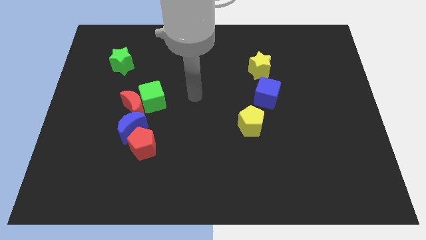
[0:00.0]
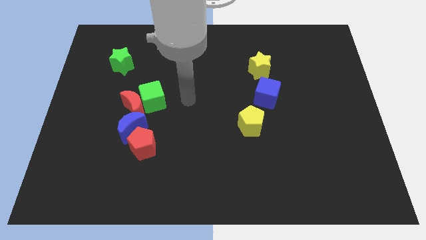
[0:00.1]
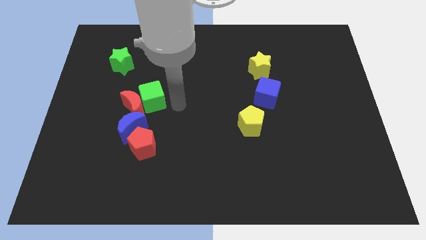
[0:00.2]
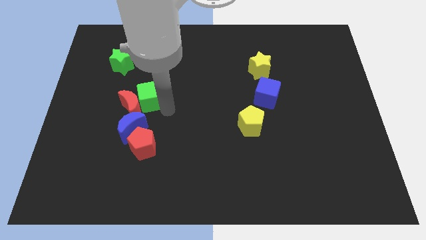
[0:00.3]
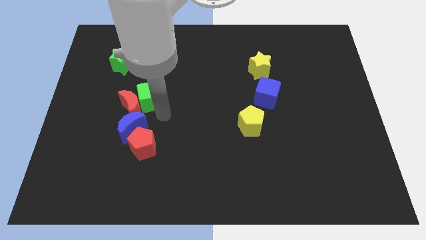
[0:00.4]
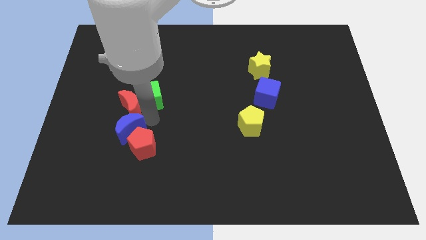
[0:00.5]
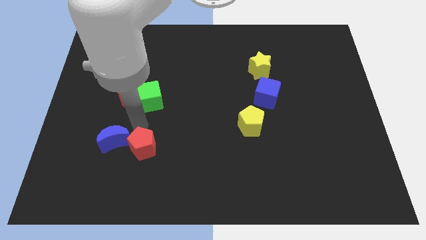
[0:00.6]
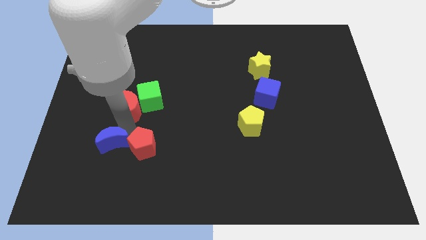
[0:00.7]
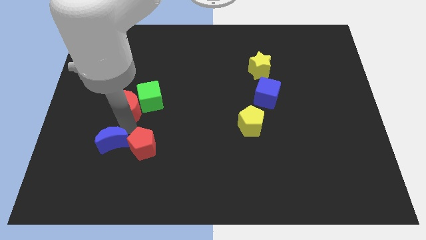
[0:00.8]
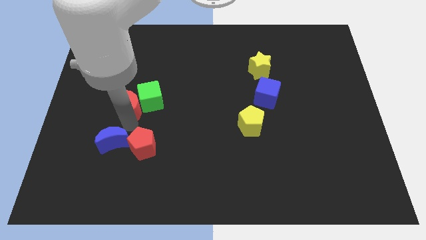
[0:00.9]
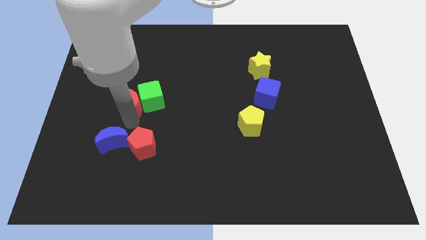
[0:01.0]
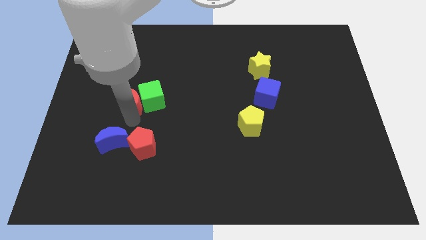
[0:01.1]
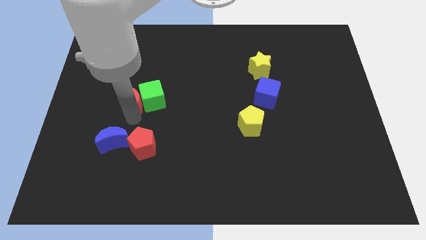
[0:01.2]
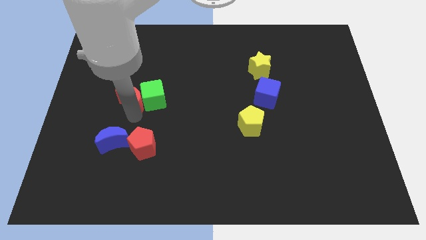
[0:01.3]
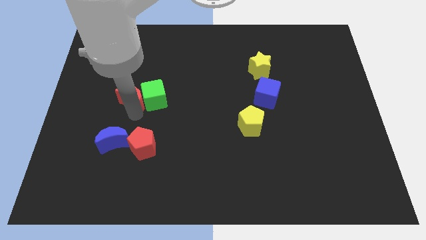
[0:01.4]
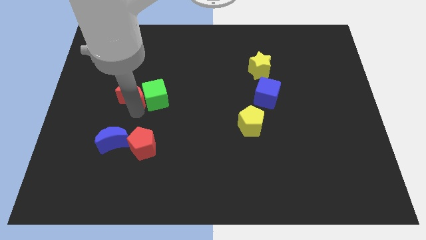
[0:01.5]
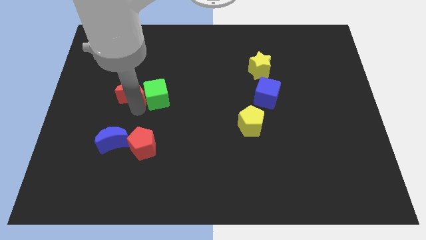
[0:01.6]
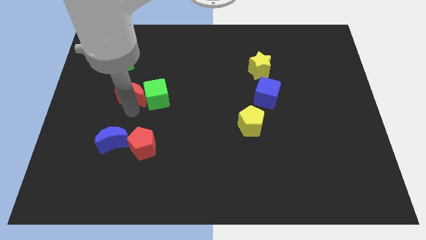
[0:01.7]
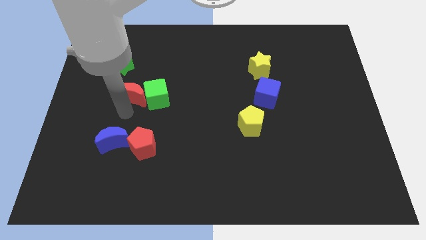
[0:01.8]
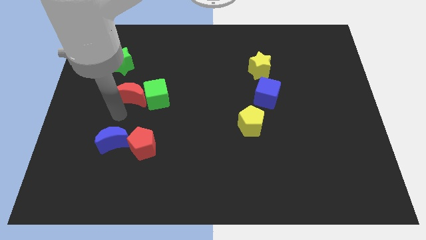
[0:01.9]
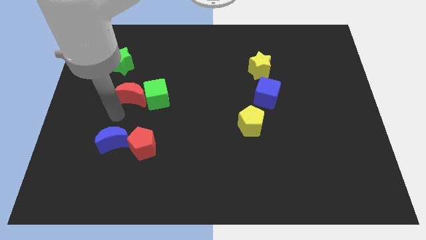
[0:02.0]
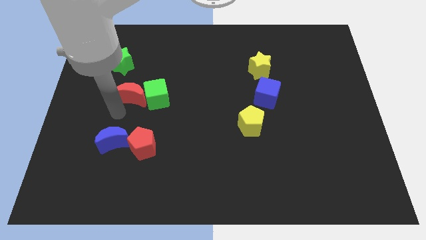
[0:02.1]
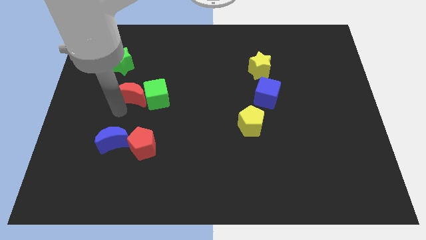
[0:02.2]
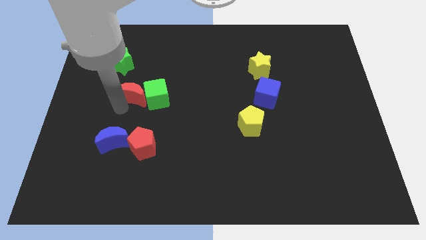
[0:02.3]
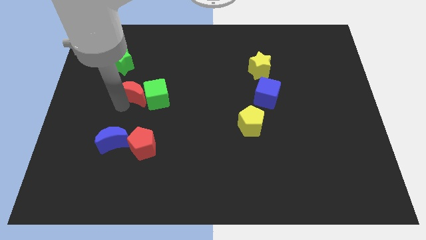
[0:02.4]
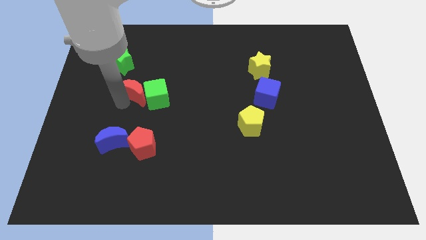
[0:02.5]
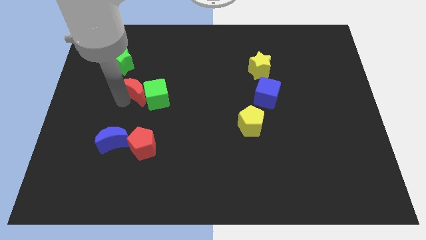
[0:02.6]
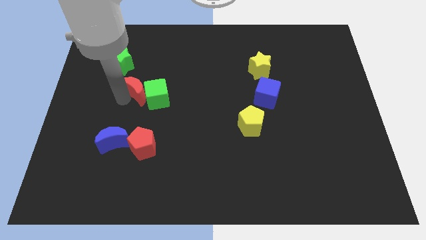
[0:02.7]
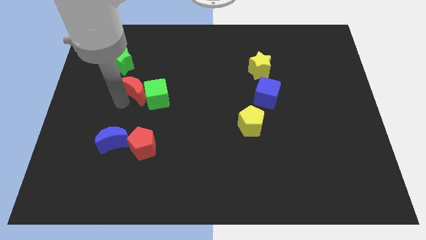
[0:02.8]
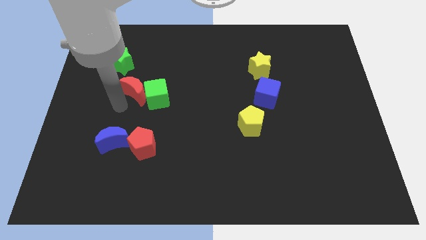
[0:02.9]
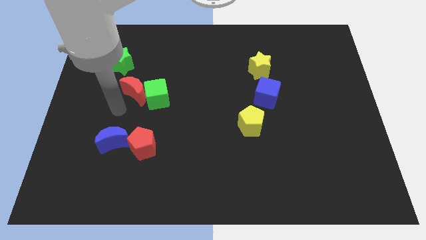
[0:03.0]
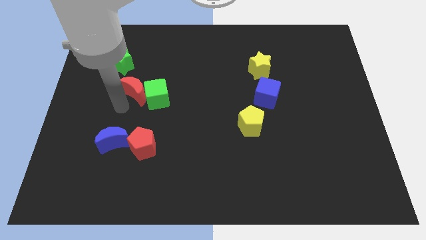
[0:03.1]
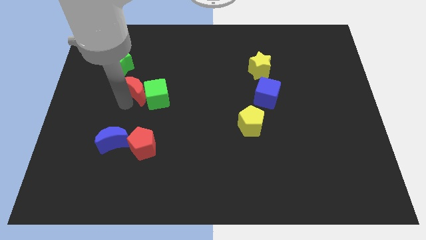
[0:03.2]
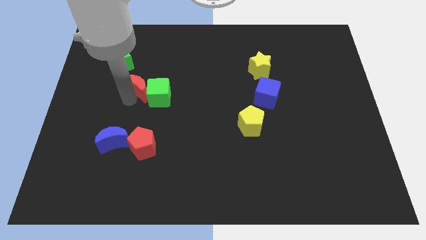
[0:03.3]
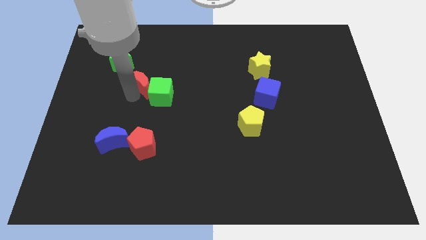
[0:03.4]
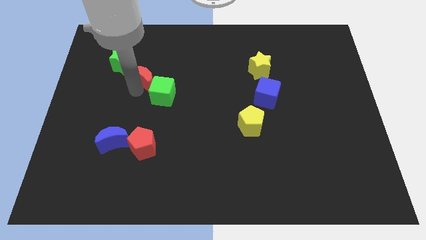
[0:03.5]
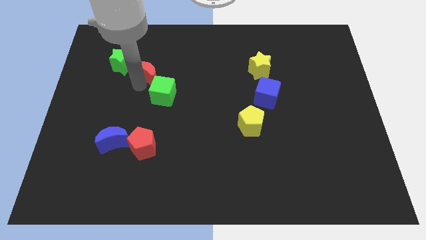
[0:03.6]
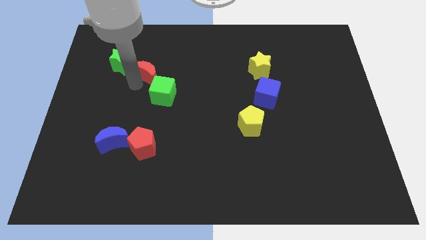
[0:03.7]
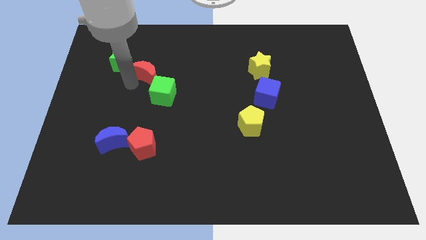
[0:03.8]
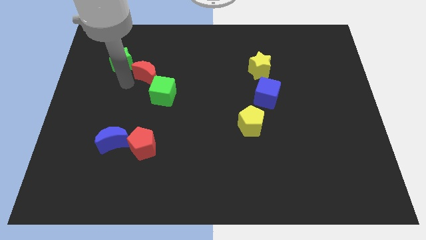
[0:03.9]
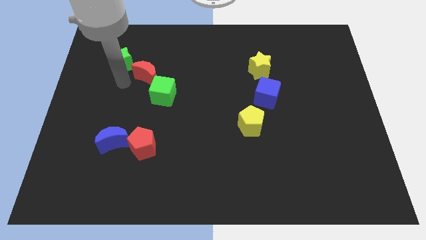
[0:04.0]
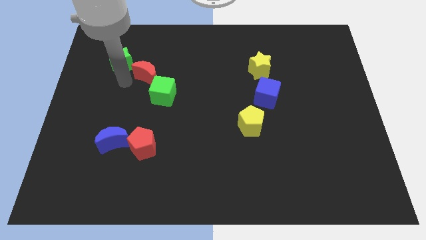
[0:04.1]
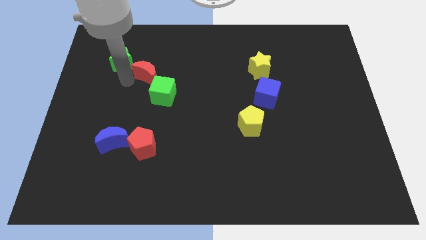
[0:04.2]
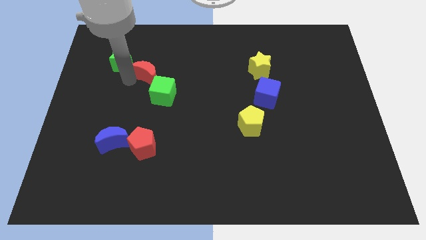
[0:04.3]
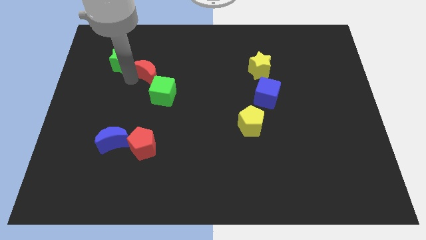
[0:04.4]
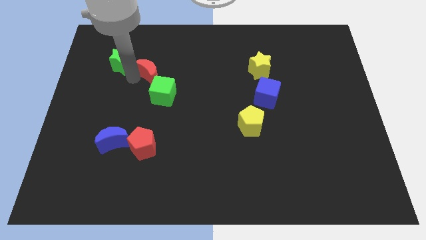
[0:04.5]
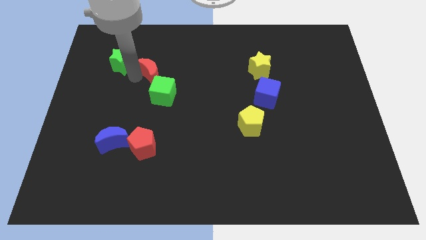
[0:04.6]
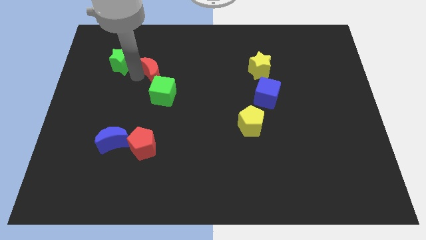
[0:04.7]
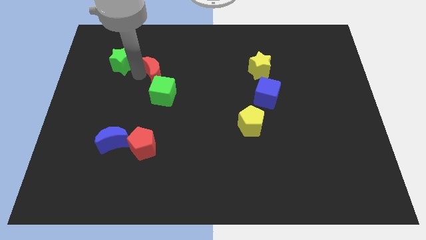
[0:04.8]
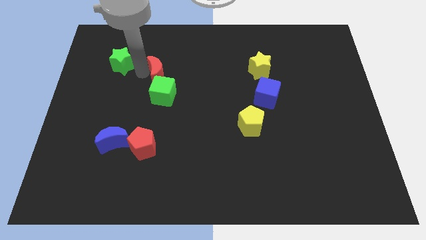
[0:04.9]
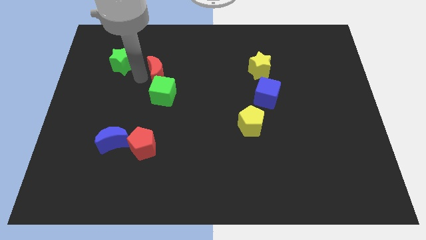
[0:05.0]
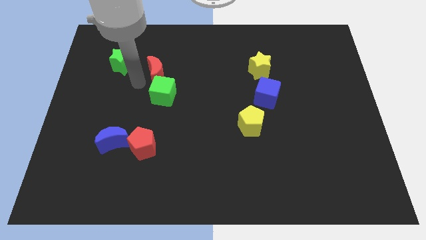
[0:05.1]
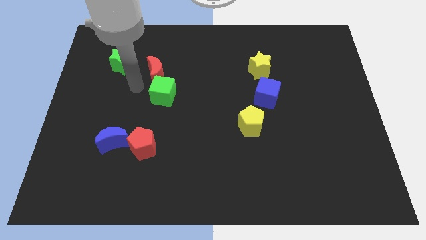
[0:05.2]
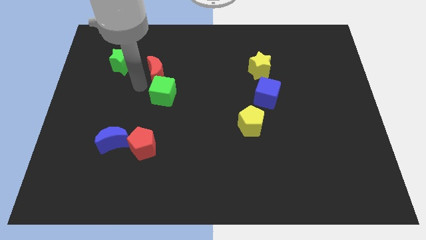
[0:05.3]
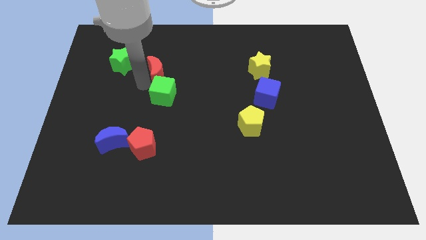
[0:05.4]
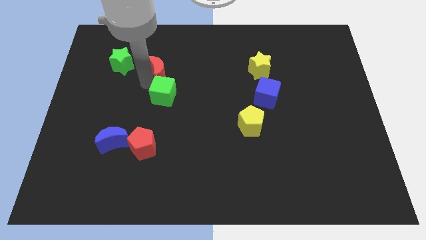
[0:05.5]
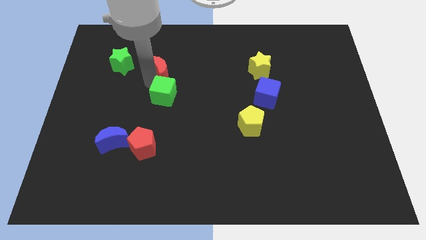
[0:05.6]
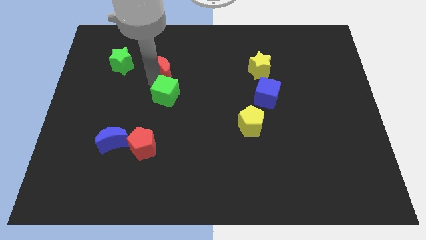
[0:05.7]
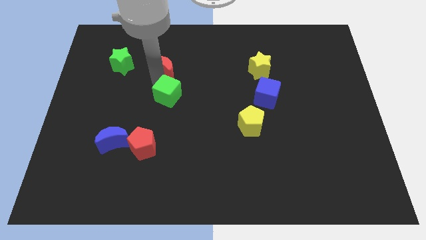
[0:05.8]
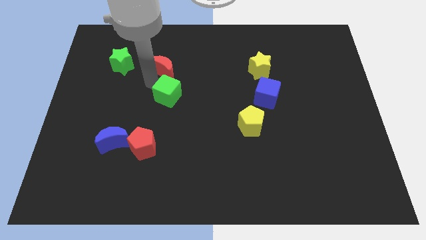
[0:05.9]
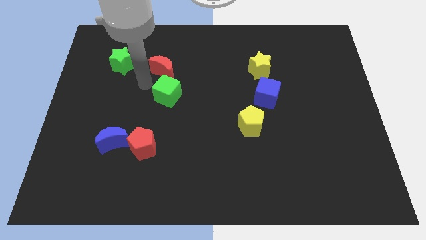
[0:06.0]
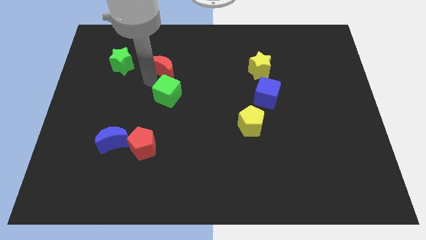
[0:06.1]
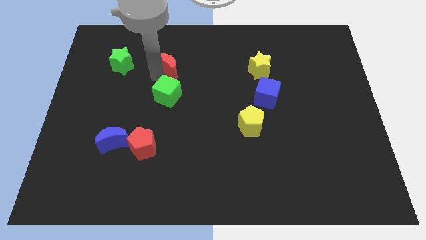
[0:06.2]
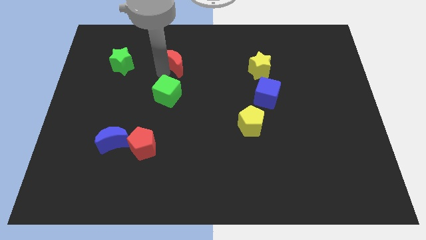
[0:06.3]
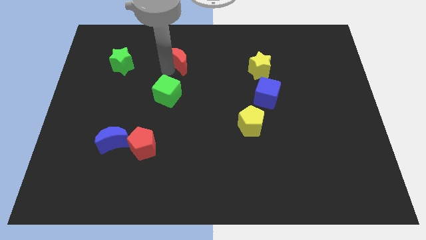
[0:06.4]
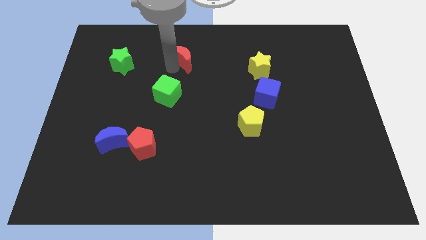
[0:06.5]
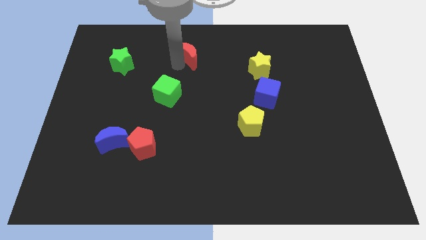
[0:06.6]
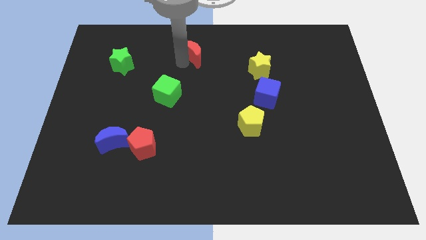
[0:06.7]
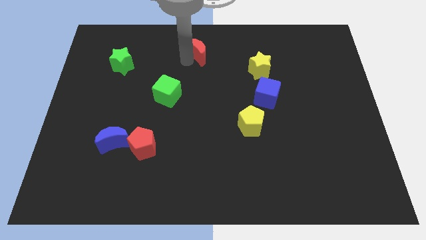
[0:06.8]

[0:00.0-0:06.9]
put the red moon to the towards your base

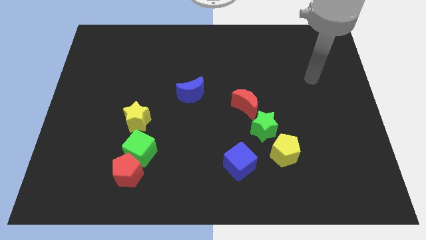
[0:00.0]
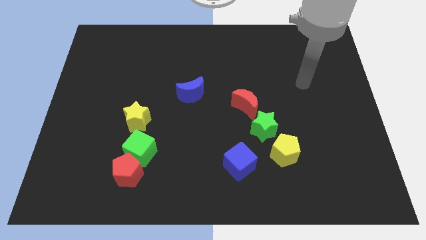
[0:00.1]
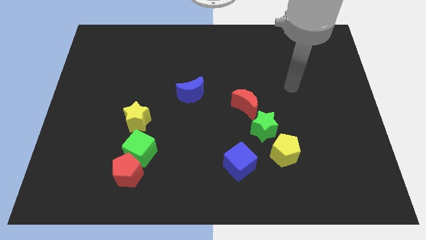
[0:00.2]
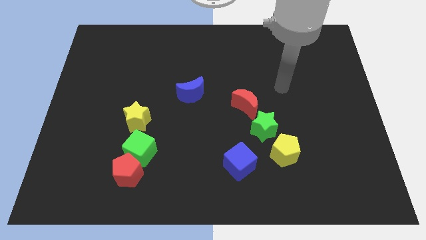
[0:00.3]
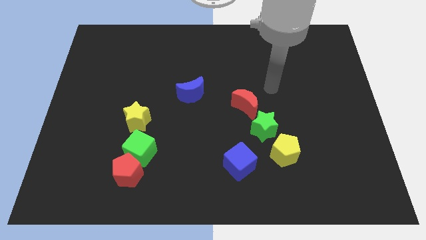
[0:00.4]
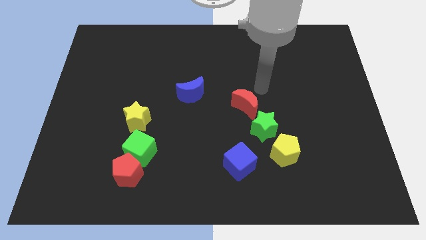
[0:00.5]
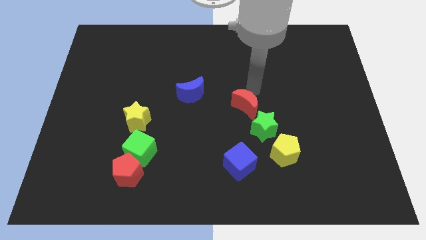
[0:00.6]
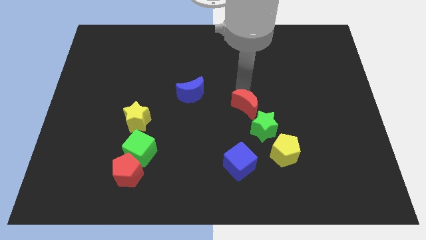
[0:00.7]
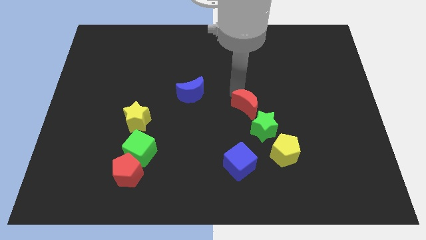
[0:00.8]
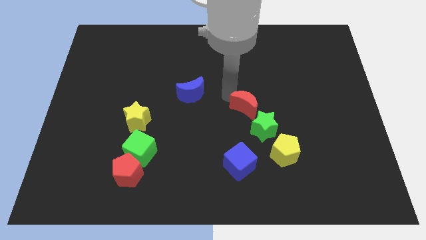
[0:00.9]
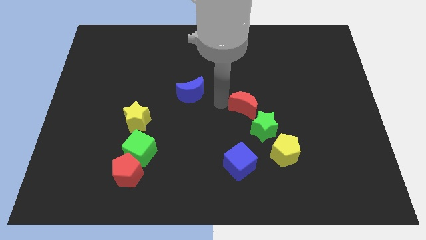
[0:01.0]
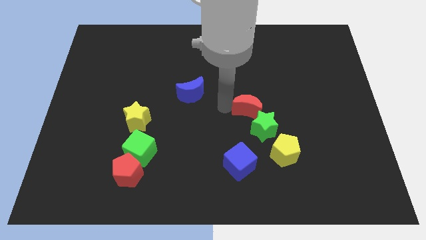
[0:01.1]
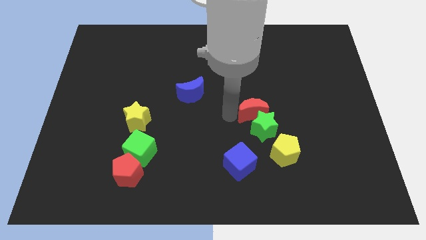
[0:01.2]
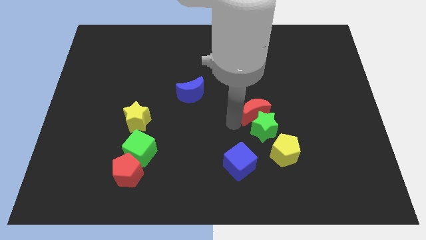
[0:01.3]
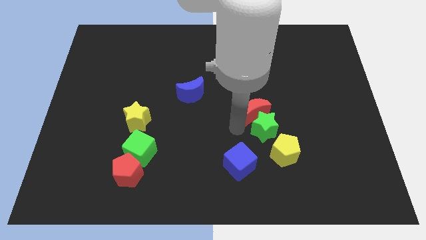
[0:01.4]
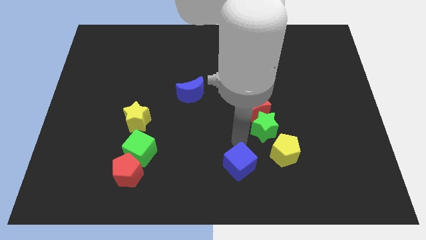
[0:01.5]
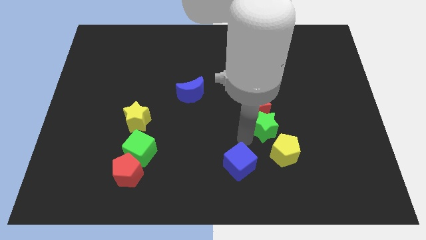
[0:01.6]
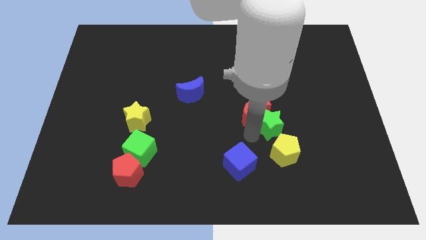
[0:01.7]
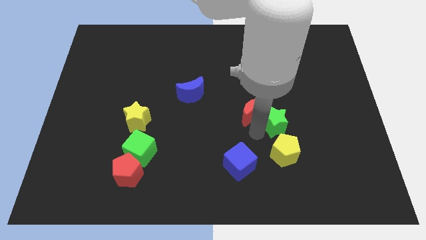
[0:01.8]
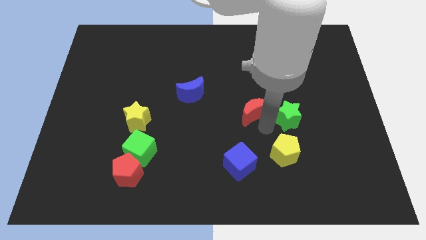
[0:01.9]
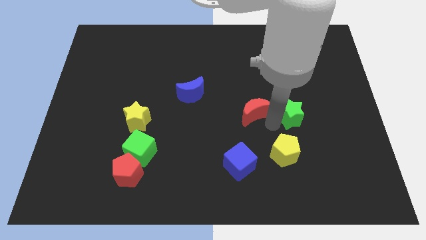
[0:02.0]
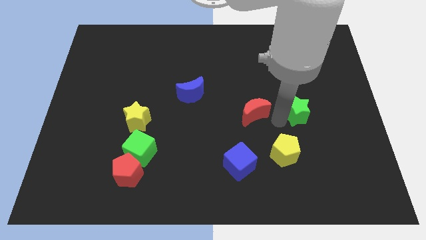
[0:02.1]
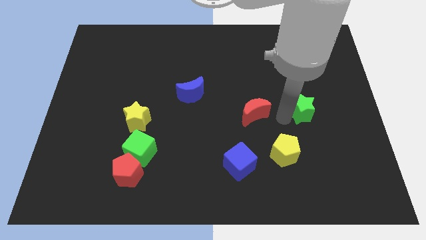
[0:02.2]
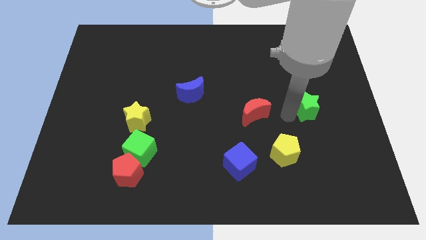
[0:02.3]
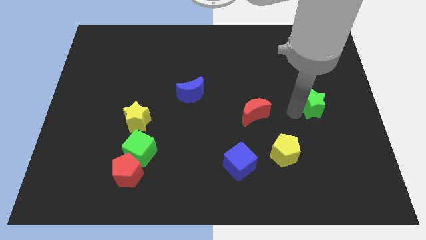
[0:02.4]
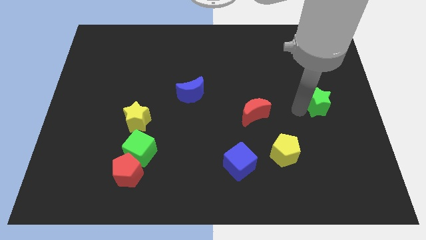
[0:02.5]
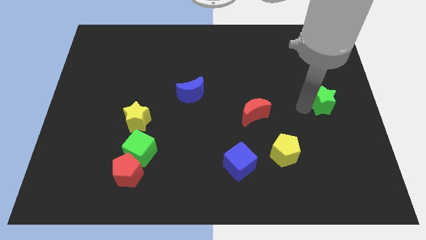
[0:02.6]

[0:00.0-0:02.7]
slide the green star to the right side of the board
